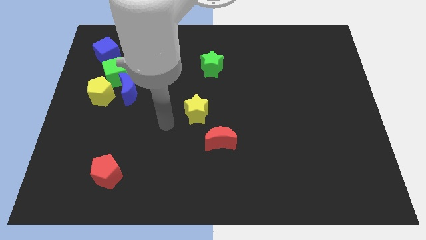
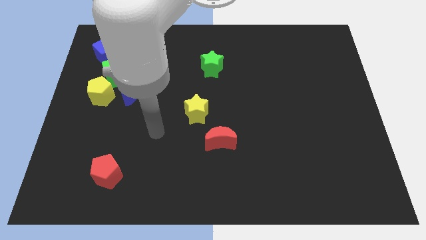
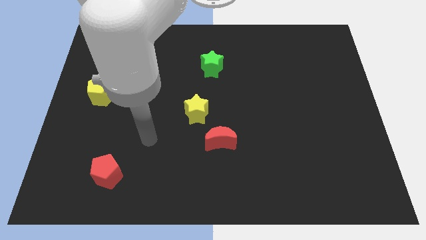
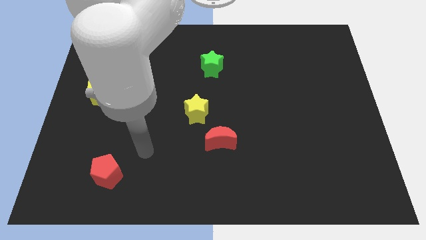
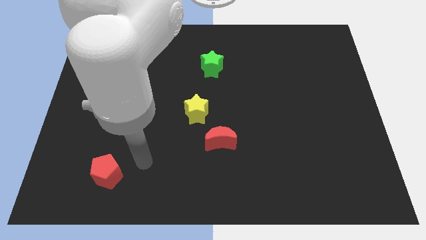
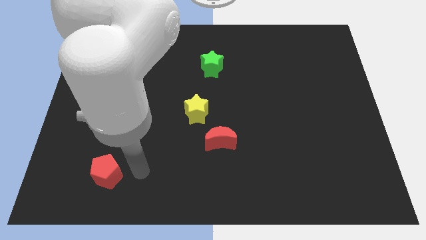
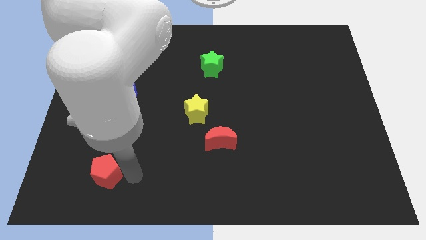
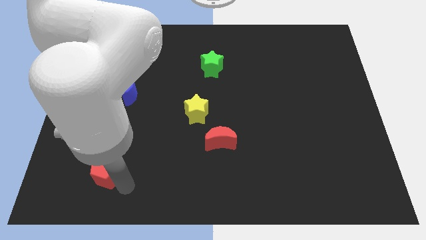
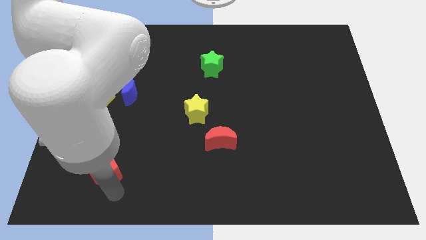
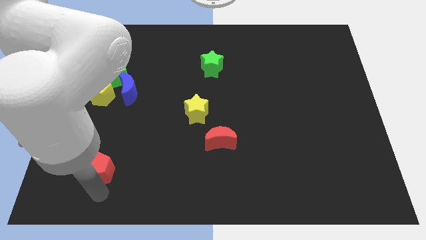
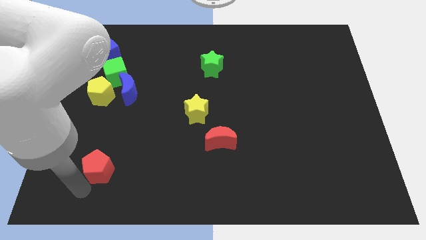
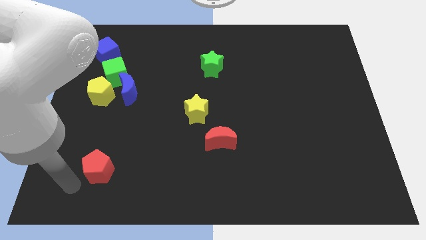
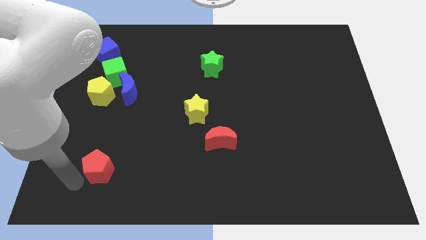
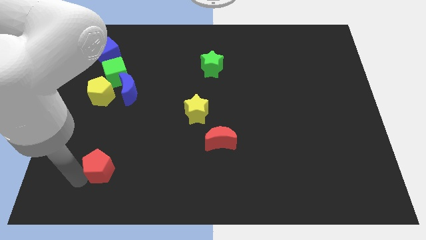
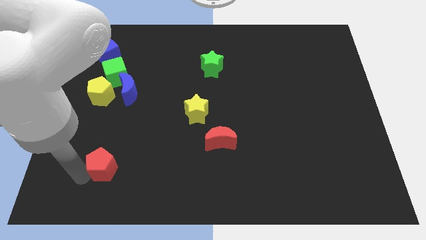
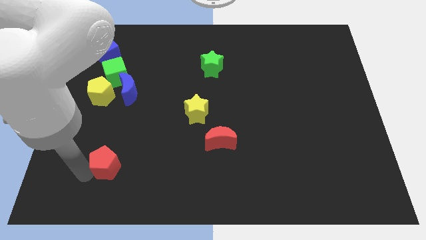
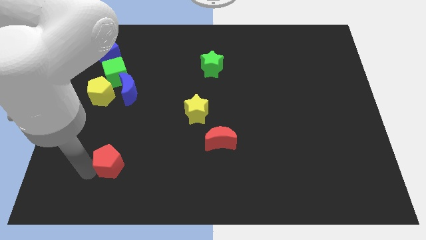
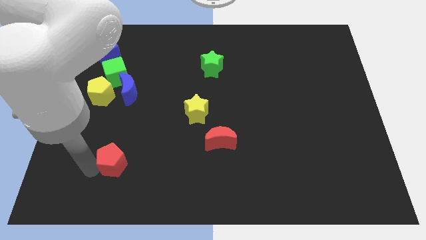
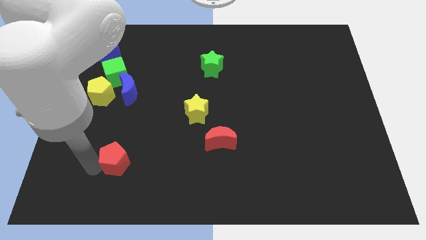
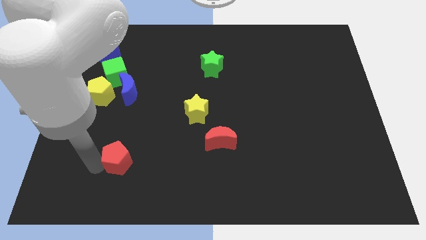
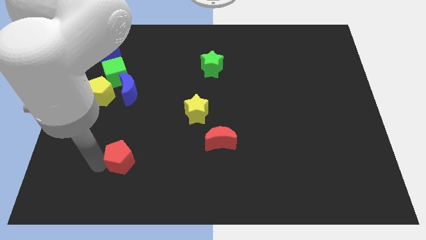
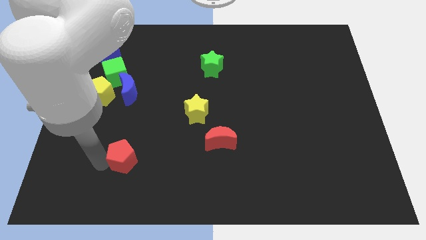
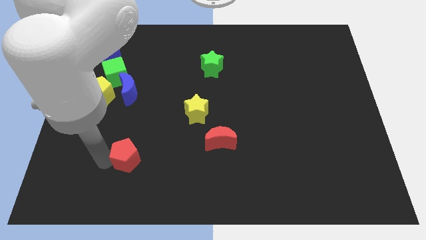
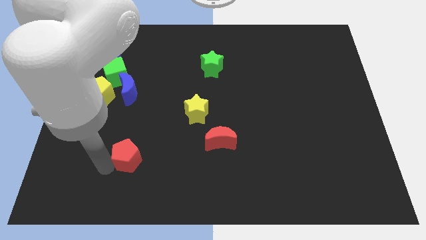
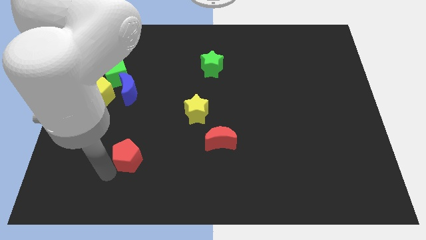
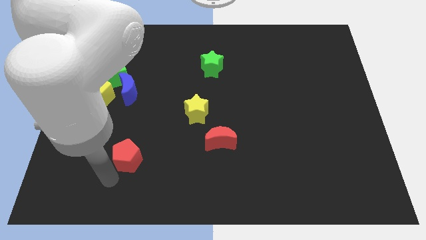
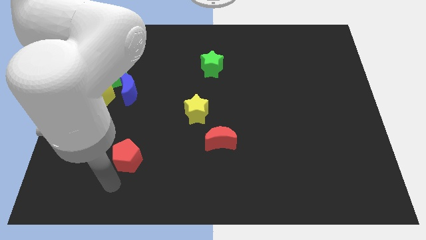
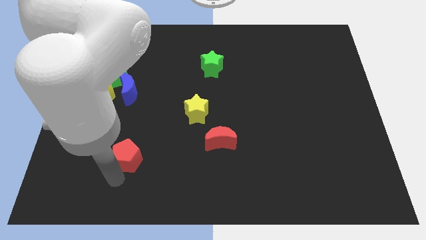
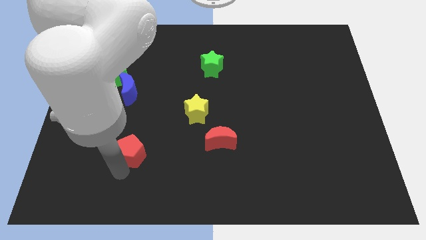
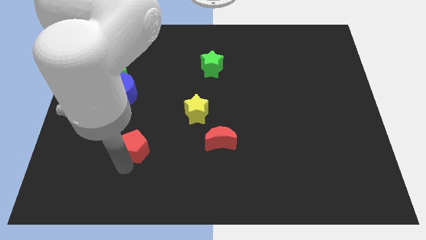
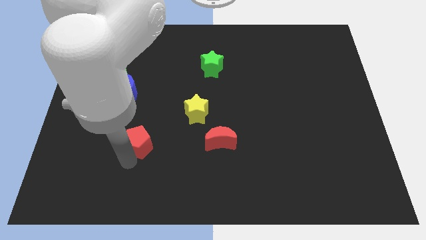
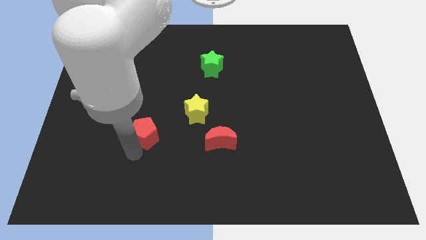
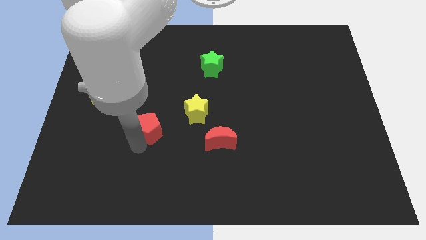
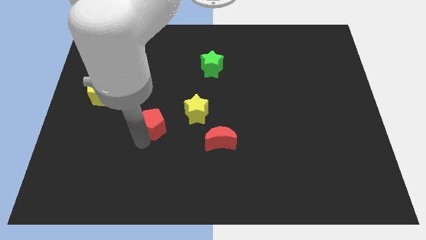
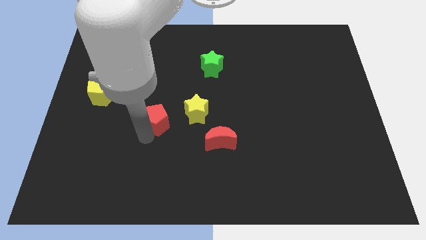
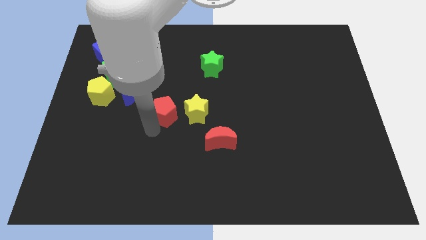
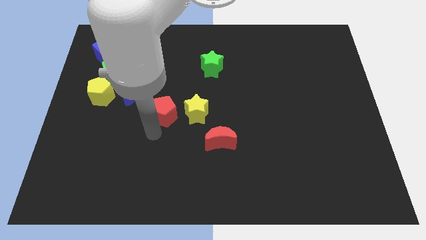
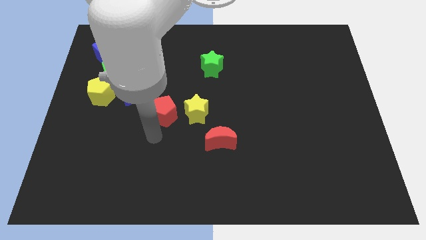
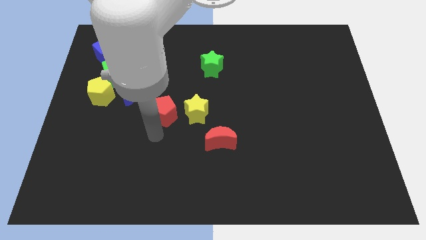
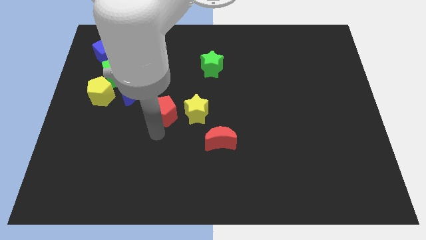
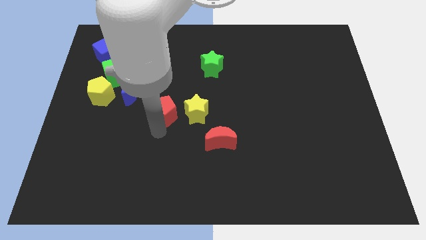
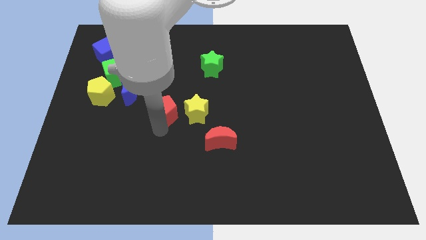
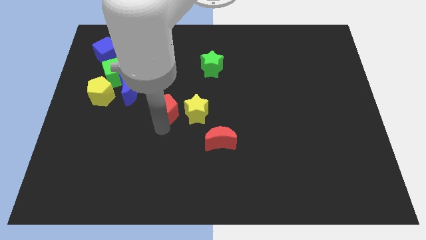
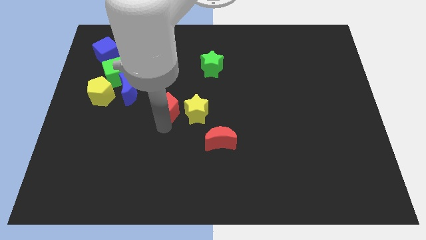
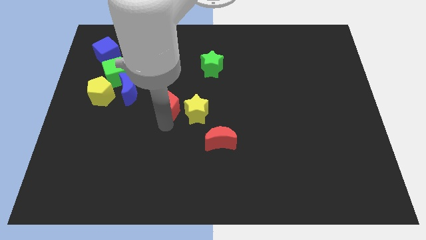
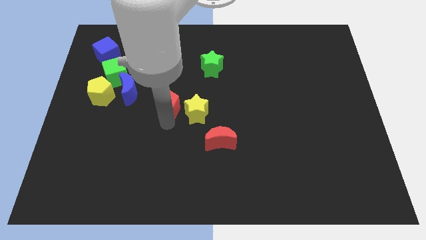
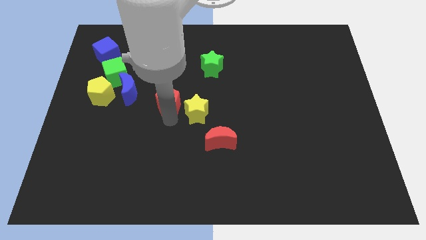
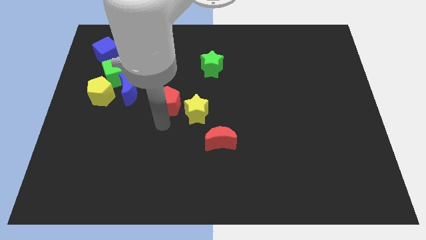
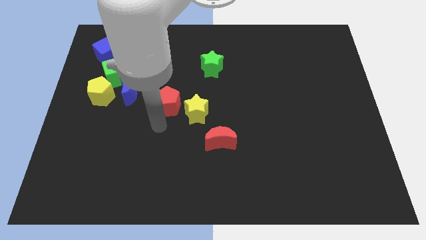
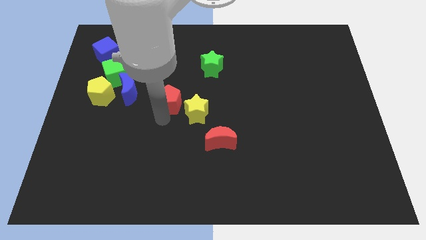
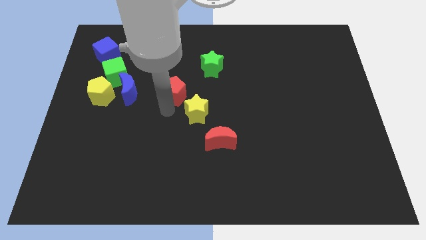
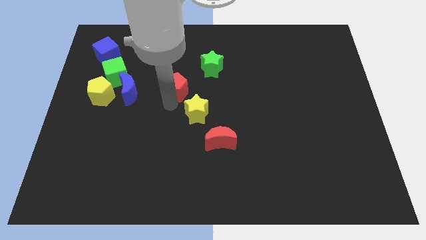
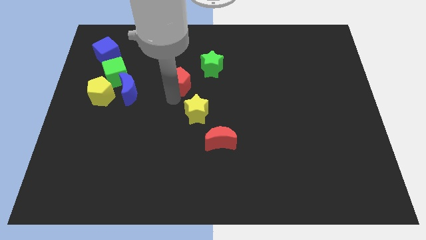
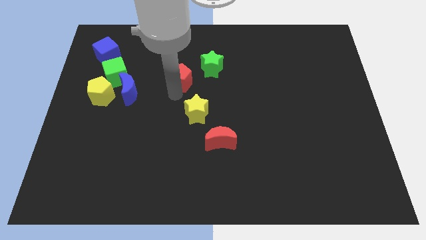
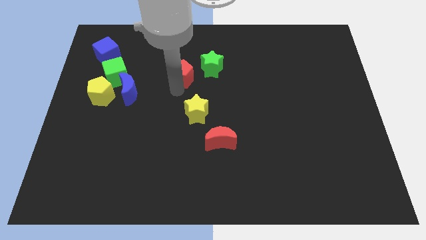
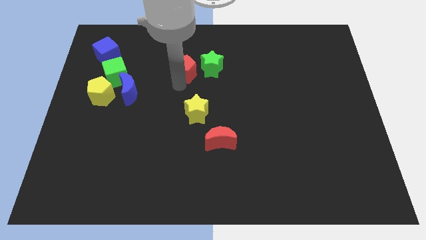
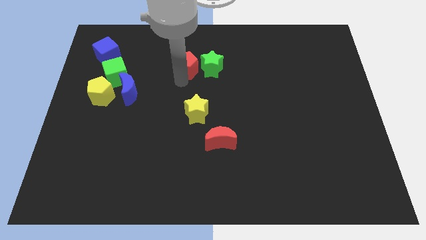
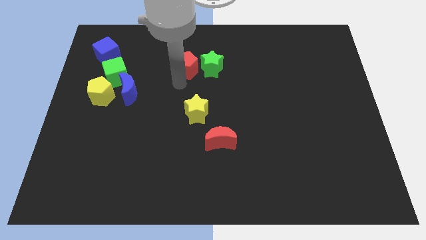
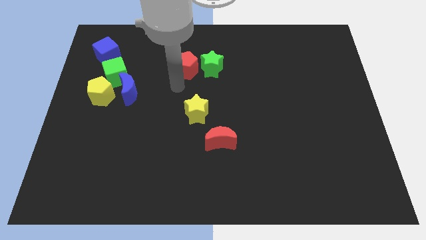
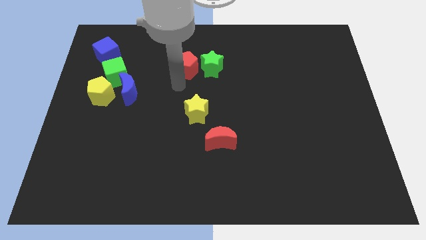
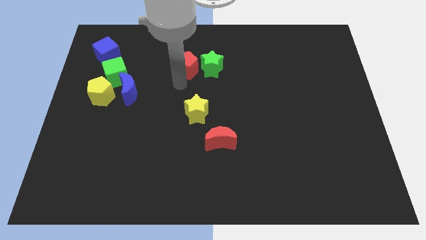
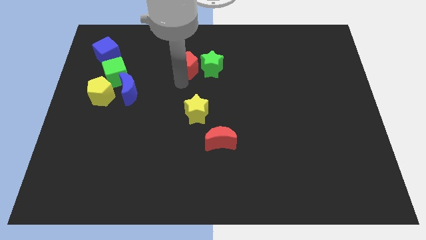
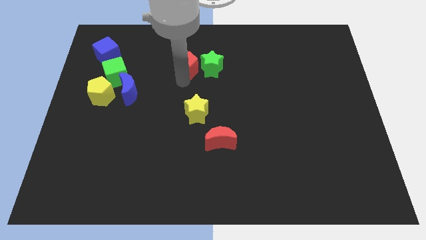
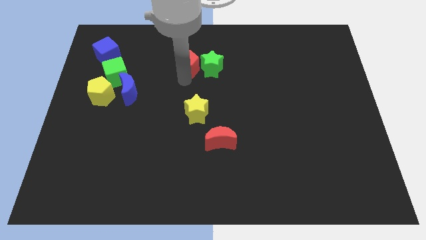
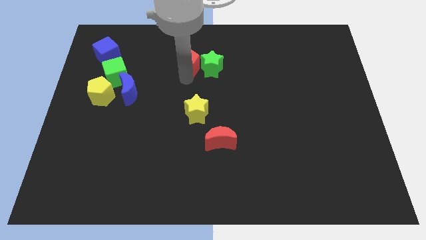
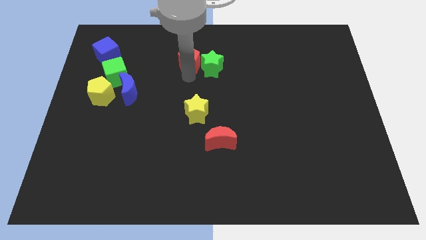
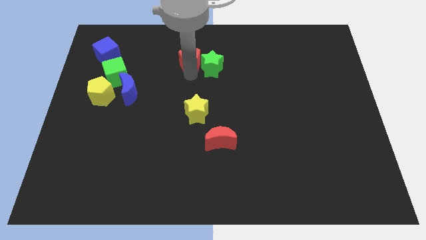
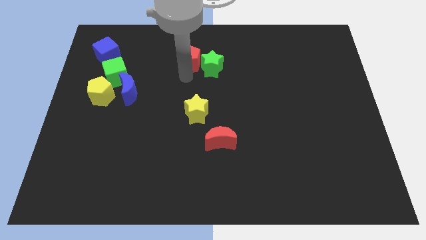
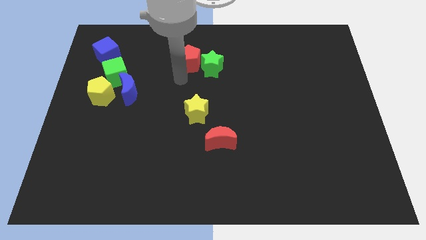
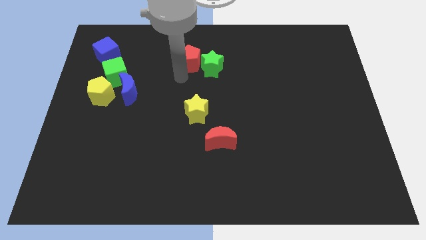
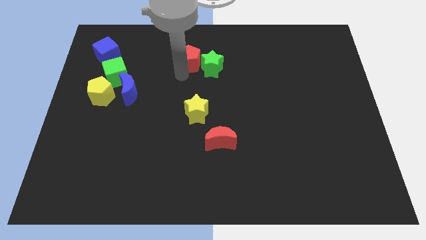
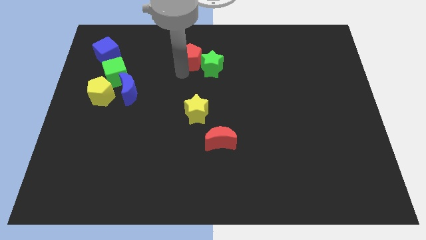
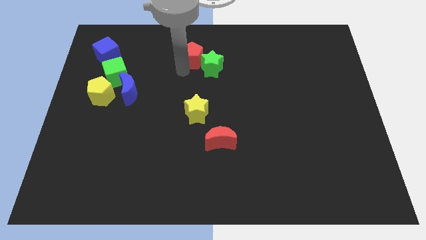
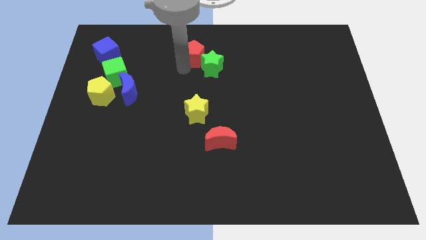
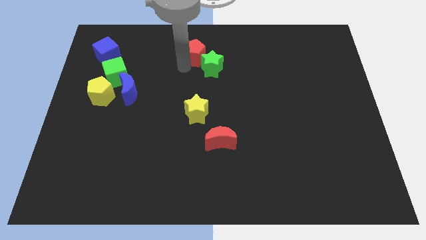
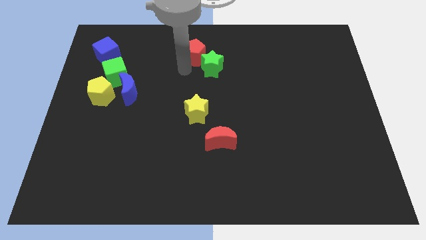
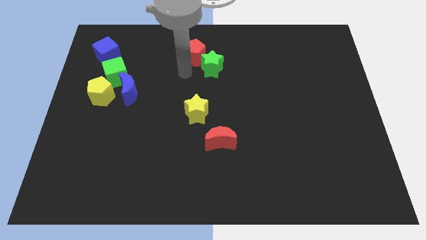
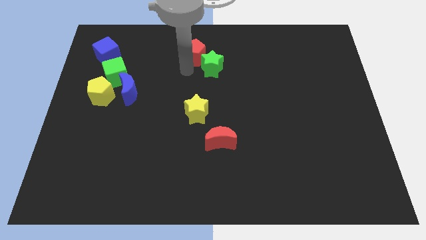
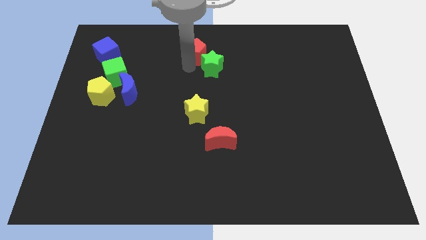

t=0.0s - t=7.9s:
push the red pentagon to the top side
